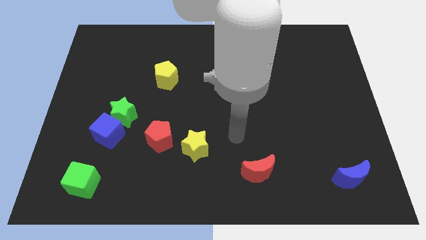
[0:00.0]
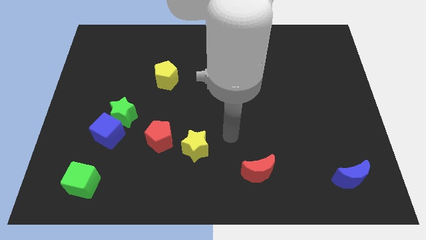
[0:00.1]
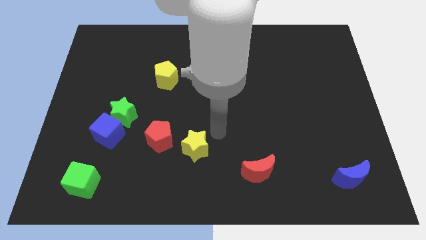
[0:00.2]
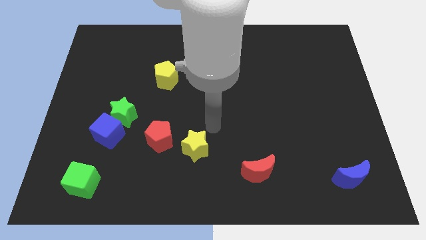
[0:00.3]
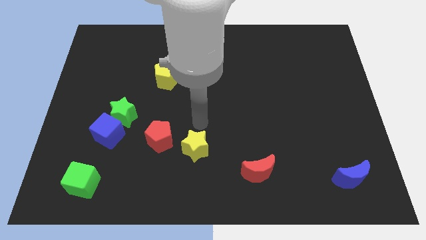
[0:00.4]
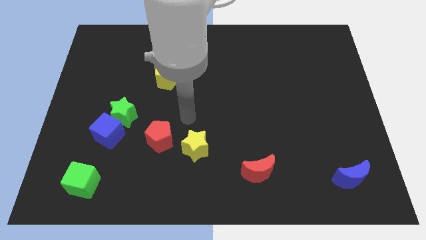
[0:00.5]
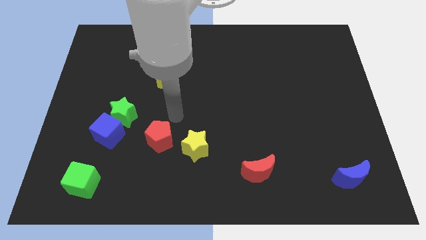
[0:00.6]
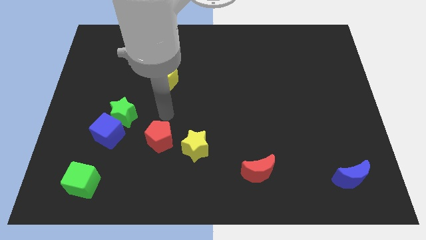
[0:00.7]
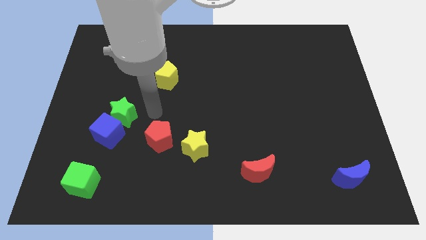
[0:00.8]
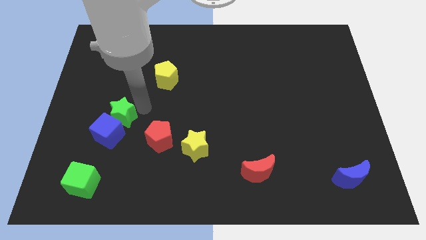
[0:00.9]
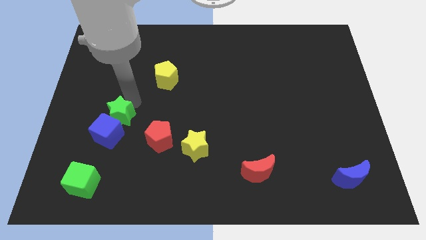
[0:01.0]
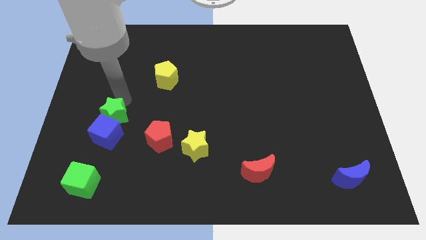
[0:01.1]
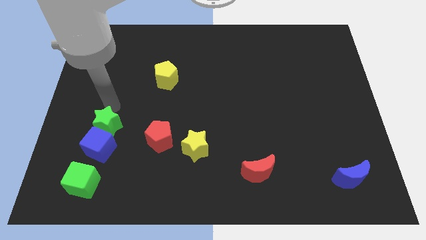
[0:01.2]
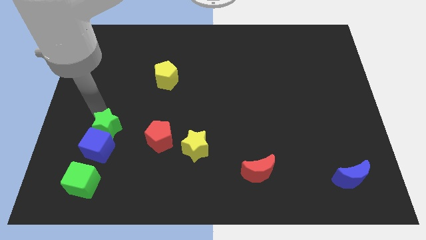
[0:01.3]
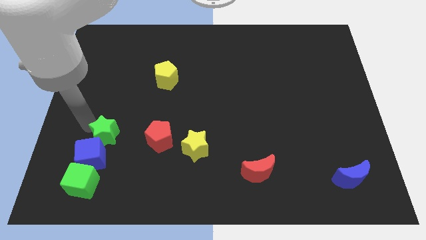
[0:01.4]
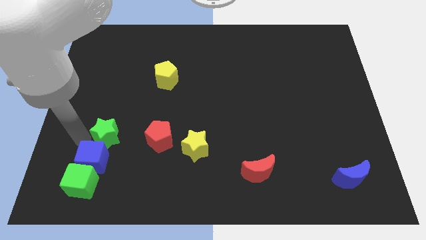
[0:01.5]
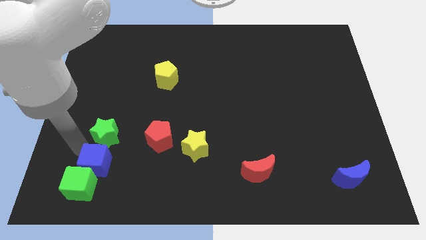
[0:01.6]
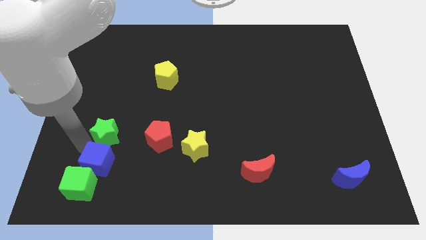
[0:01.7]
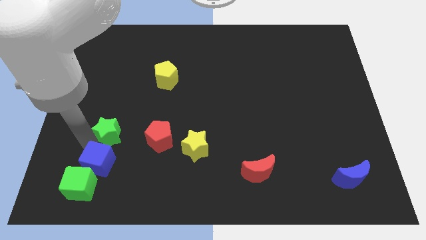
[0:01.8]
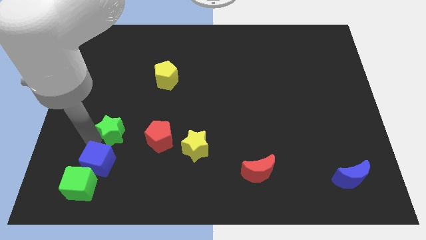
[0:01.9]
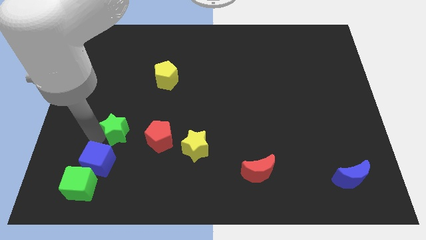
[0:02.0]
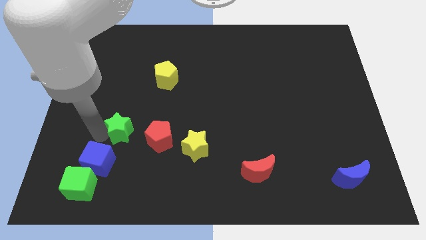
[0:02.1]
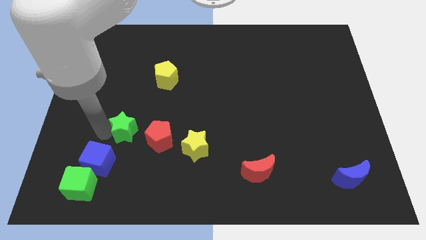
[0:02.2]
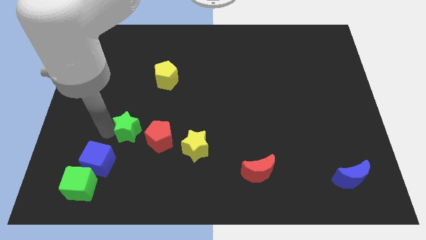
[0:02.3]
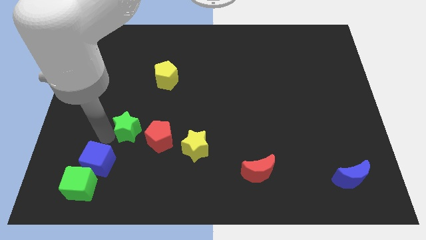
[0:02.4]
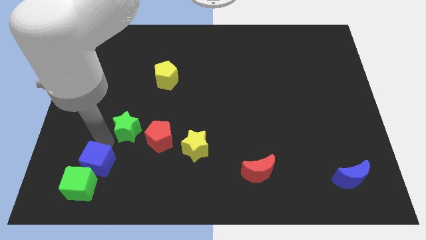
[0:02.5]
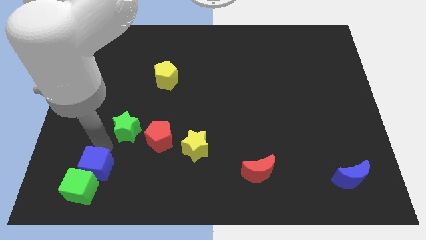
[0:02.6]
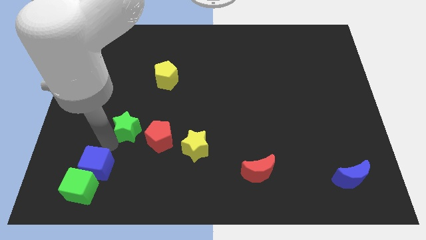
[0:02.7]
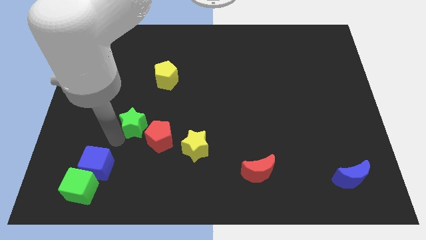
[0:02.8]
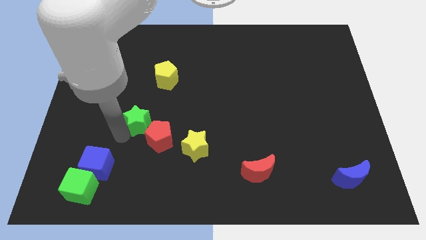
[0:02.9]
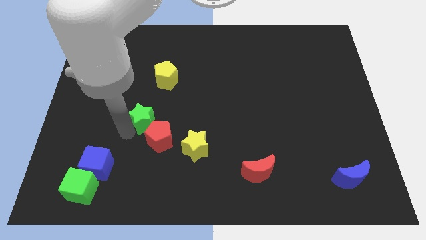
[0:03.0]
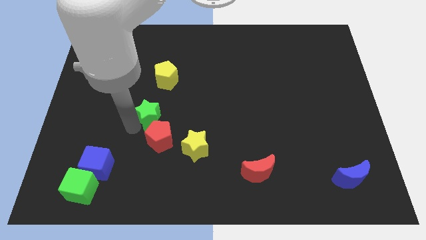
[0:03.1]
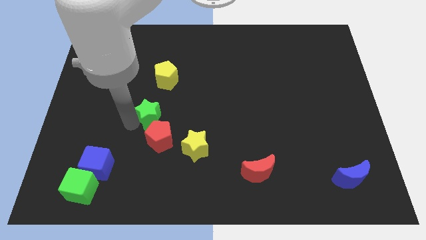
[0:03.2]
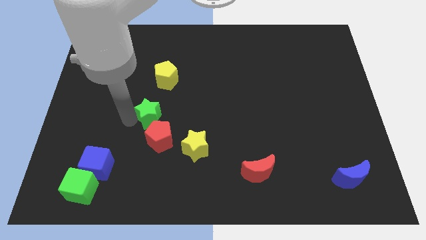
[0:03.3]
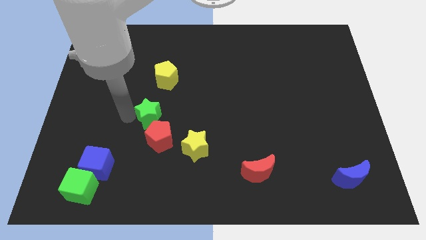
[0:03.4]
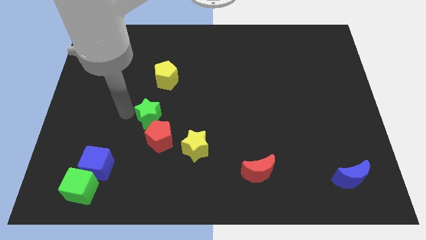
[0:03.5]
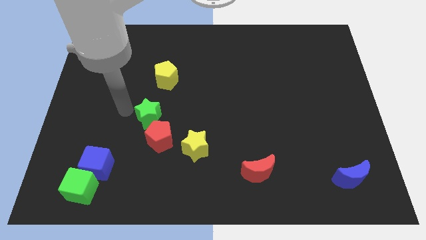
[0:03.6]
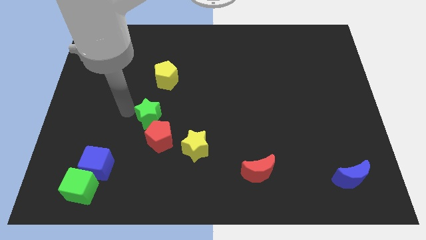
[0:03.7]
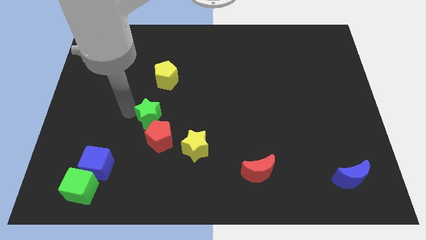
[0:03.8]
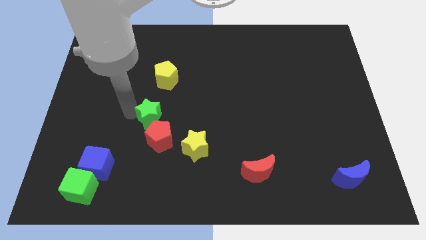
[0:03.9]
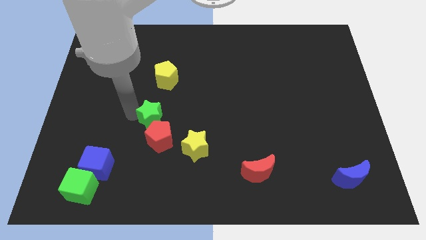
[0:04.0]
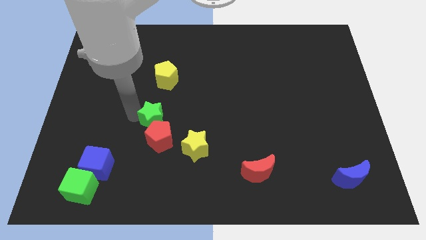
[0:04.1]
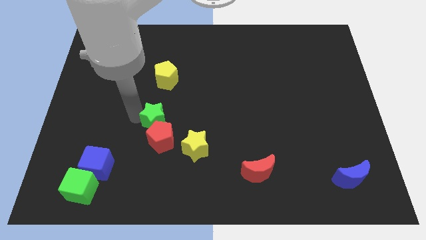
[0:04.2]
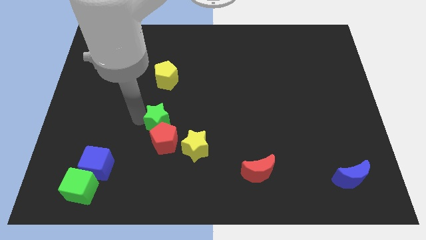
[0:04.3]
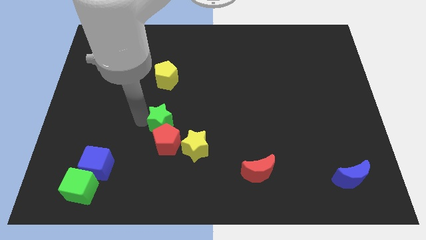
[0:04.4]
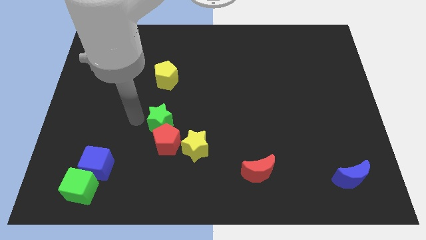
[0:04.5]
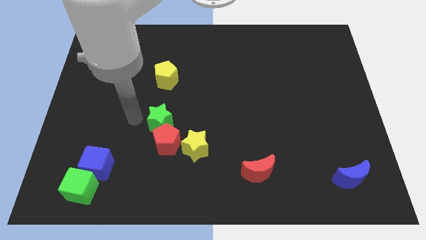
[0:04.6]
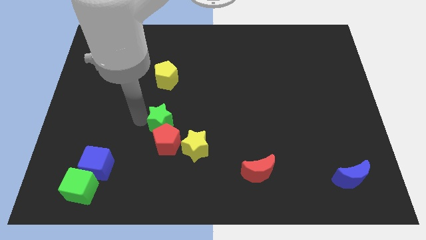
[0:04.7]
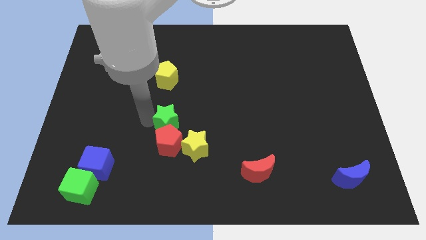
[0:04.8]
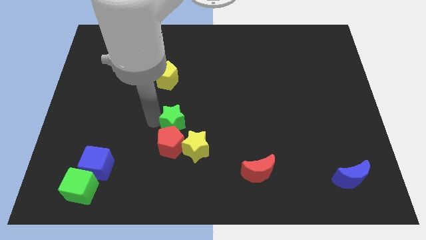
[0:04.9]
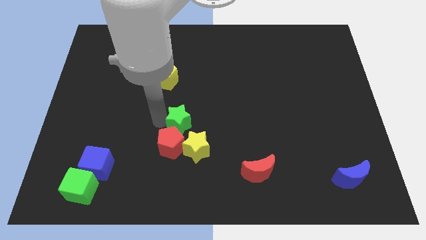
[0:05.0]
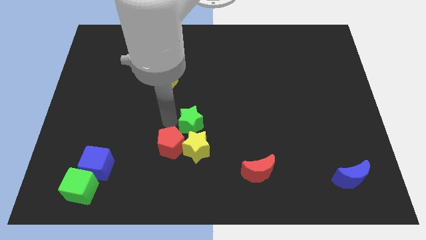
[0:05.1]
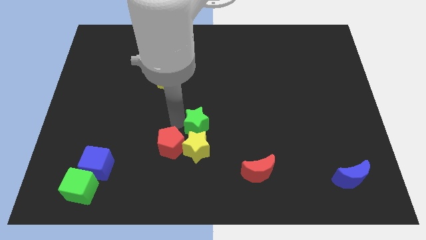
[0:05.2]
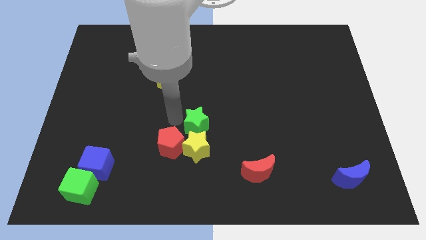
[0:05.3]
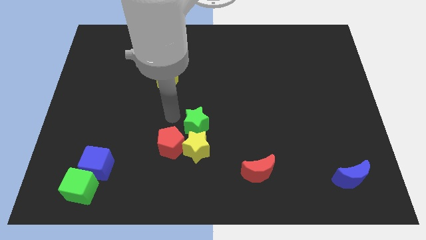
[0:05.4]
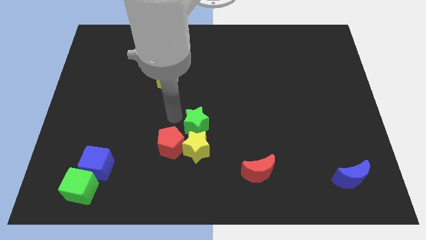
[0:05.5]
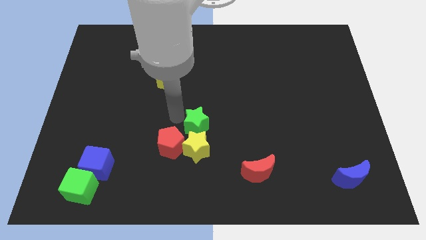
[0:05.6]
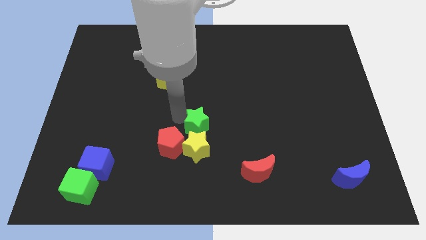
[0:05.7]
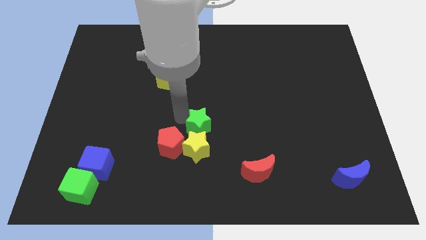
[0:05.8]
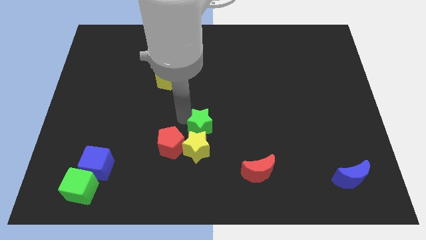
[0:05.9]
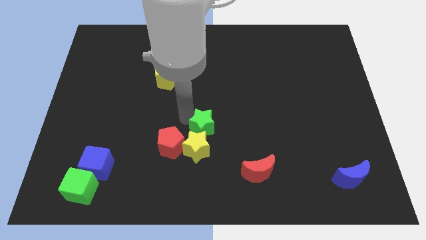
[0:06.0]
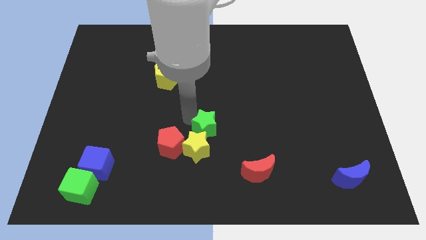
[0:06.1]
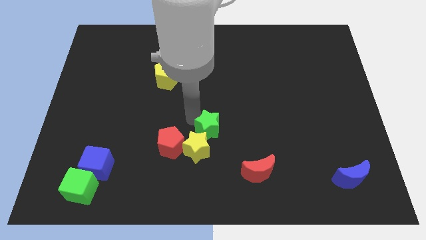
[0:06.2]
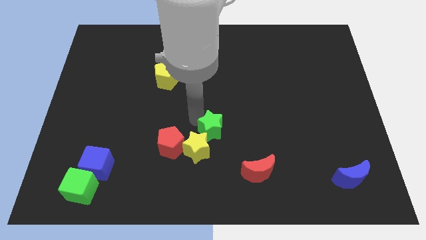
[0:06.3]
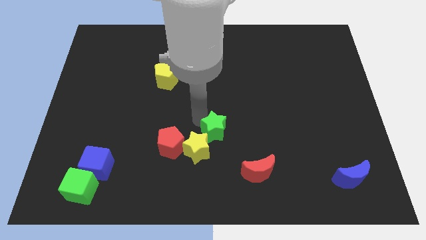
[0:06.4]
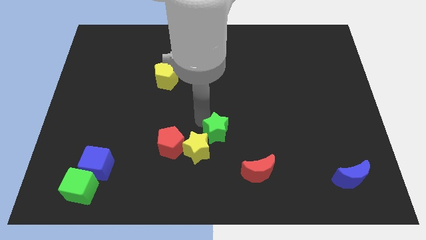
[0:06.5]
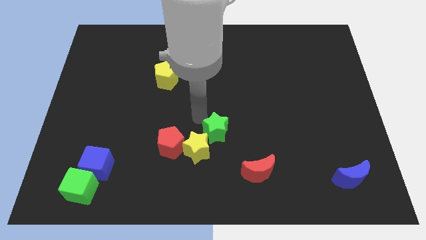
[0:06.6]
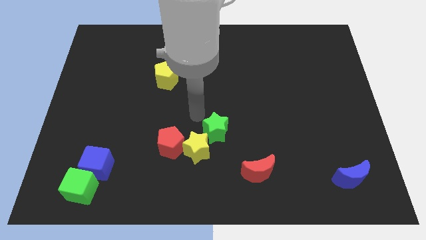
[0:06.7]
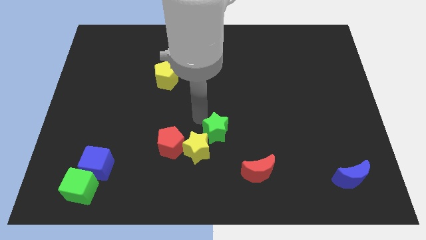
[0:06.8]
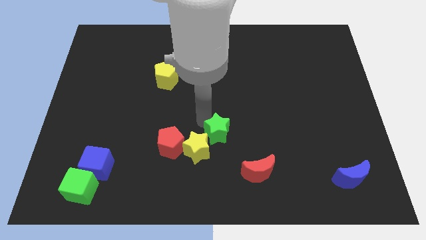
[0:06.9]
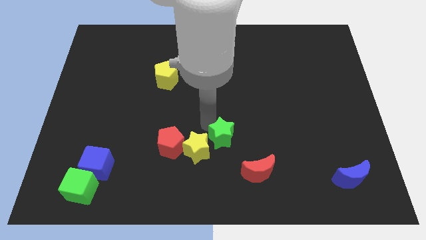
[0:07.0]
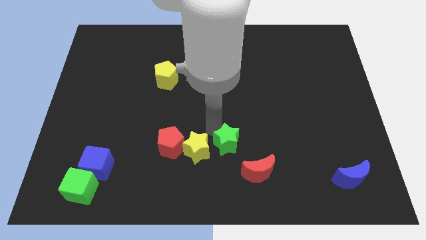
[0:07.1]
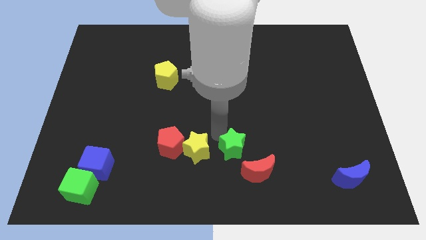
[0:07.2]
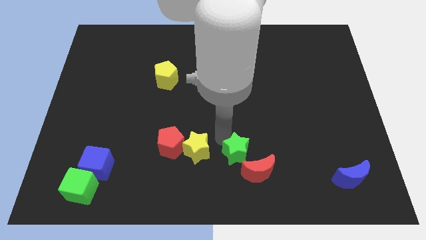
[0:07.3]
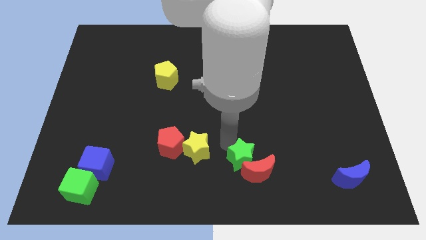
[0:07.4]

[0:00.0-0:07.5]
push the green star close to the red moon
